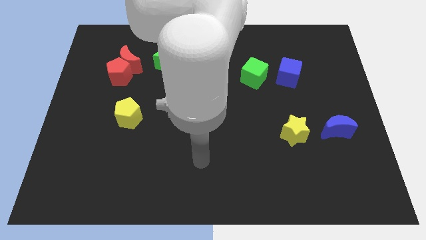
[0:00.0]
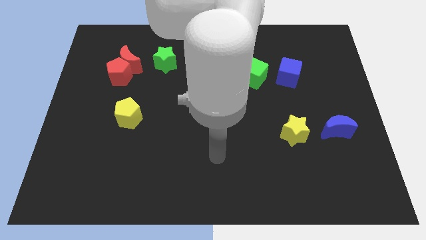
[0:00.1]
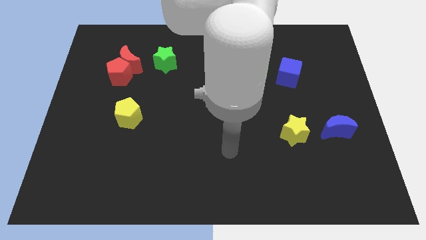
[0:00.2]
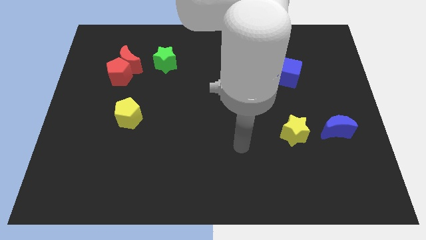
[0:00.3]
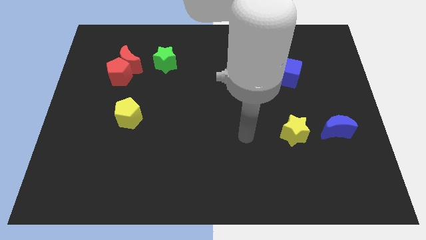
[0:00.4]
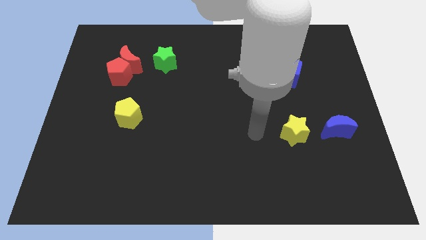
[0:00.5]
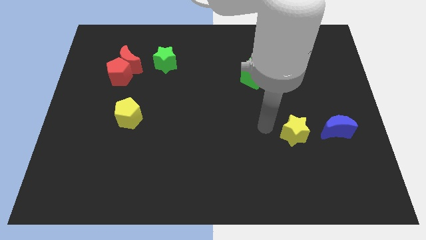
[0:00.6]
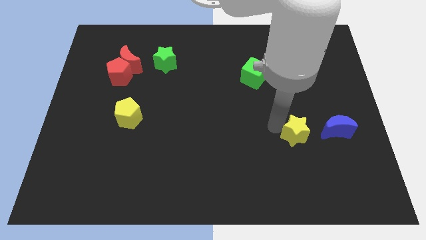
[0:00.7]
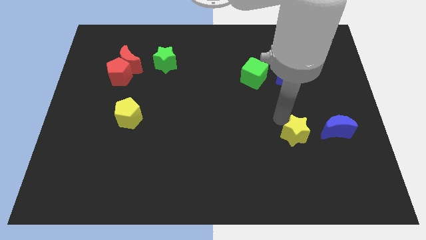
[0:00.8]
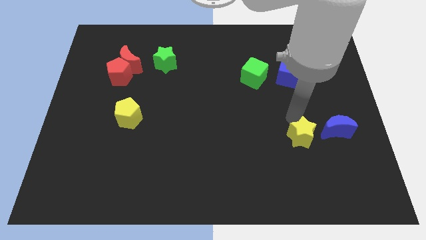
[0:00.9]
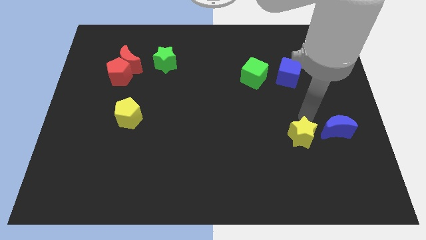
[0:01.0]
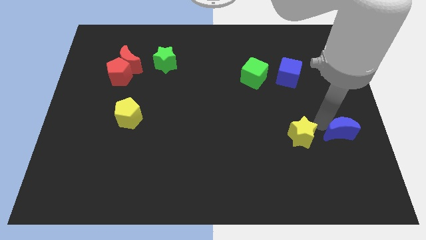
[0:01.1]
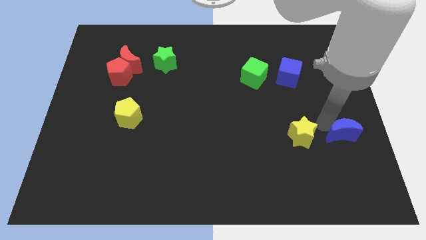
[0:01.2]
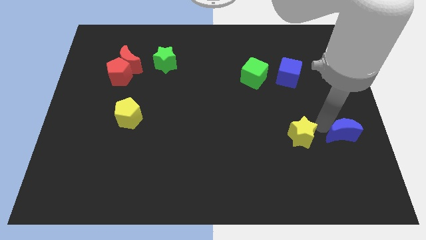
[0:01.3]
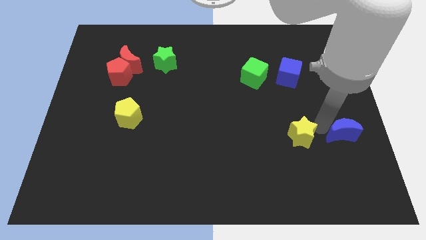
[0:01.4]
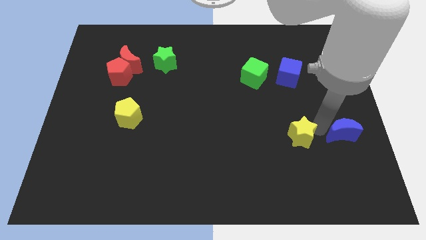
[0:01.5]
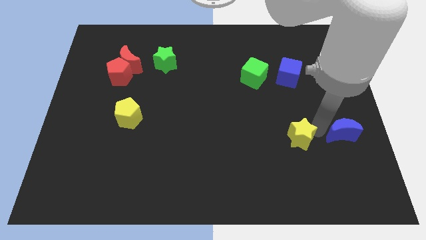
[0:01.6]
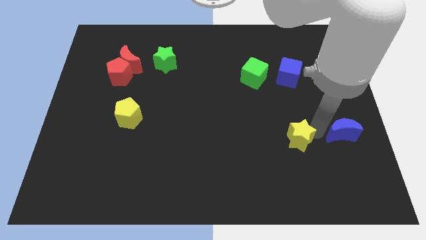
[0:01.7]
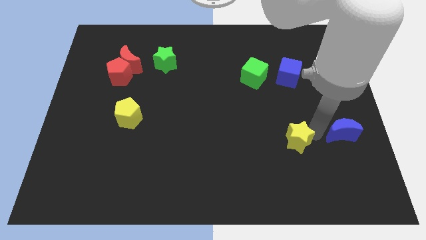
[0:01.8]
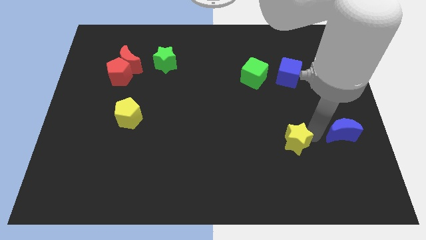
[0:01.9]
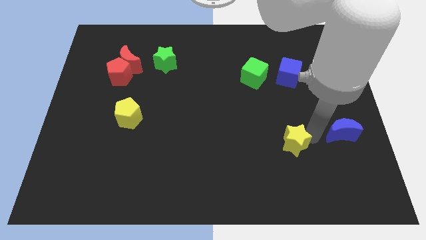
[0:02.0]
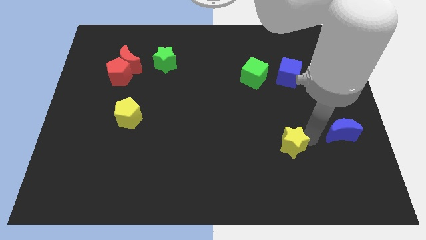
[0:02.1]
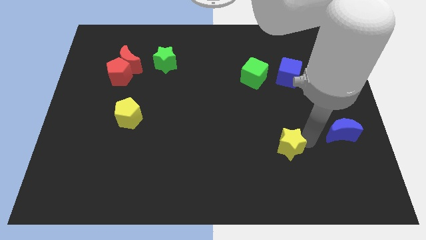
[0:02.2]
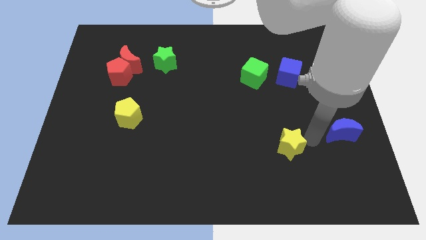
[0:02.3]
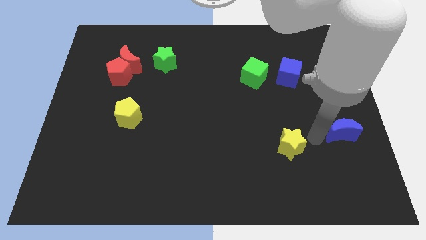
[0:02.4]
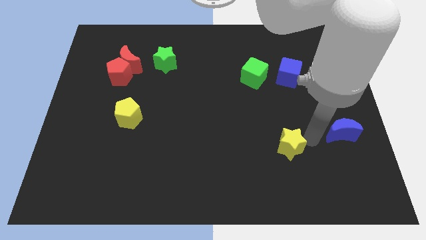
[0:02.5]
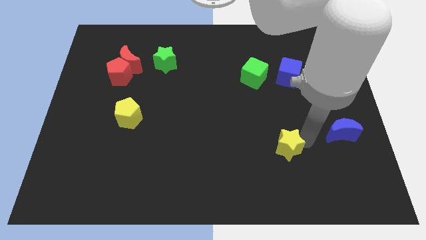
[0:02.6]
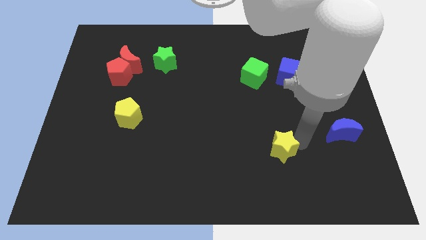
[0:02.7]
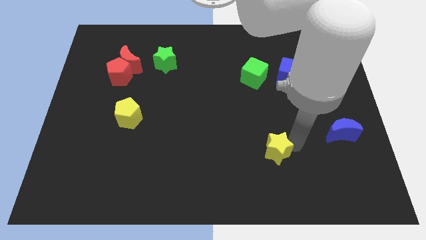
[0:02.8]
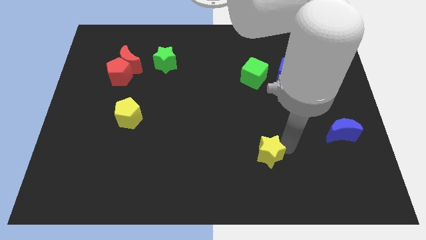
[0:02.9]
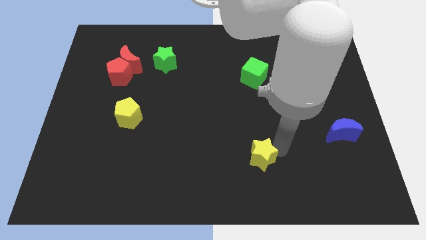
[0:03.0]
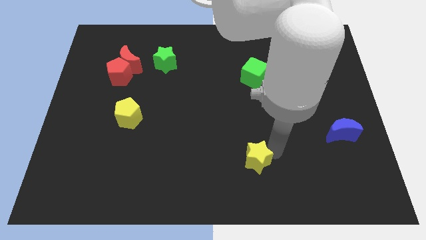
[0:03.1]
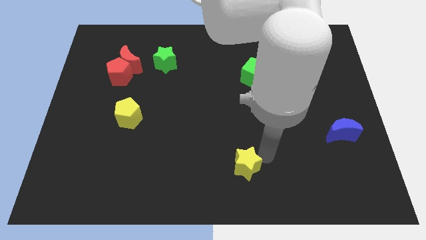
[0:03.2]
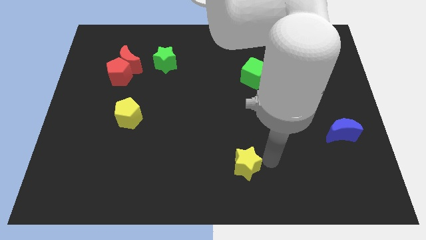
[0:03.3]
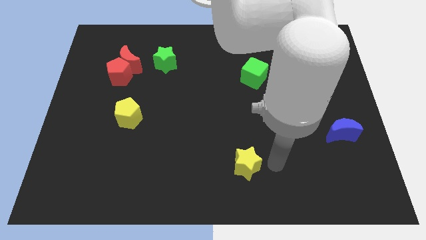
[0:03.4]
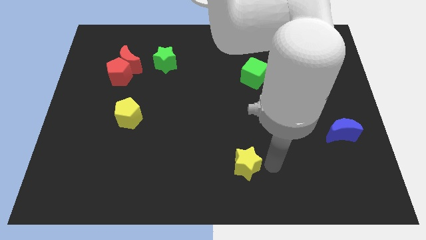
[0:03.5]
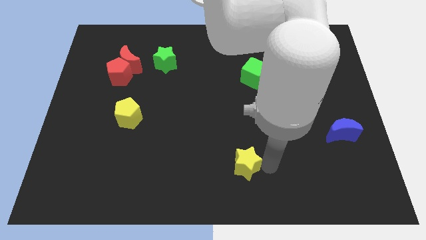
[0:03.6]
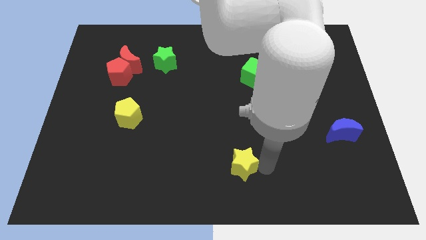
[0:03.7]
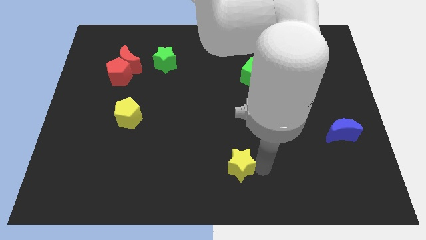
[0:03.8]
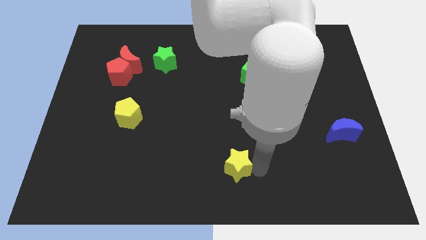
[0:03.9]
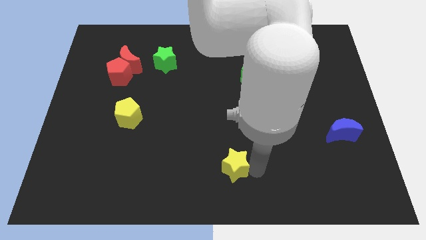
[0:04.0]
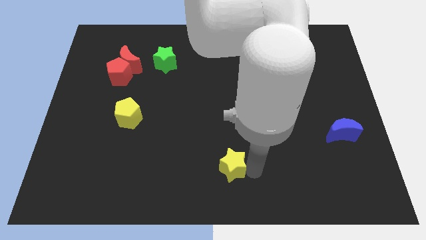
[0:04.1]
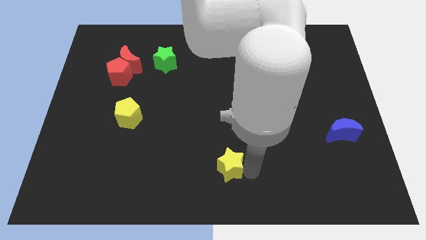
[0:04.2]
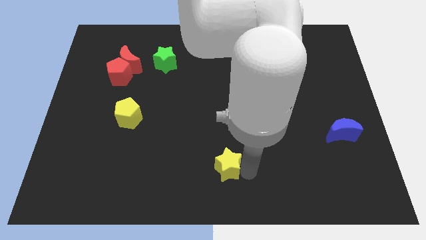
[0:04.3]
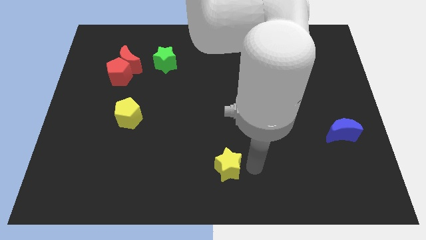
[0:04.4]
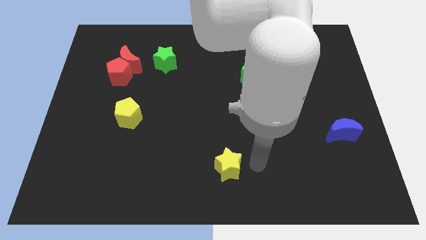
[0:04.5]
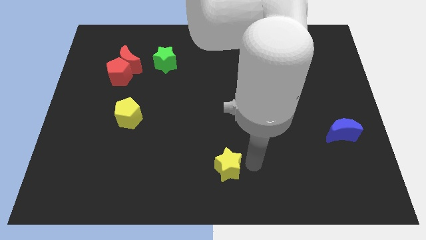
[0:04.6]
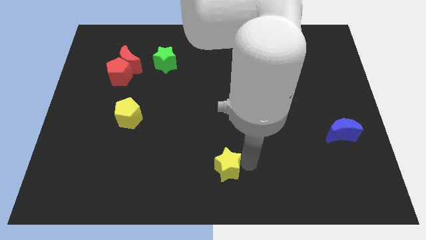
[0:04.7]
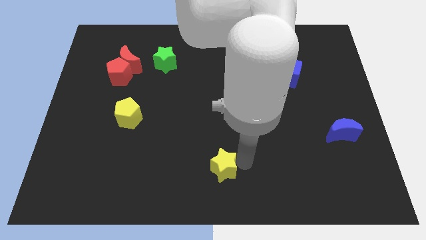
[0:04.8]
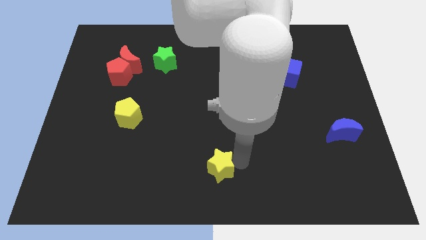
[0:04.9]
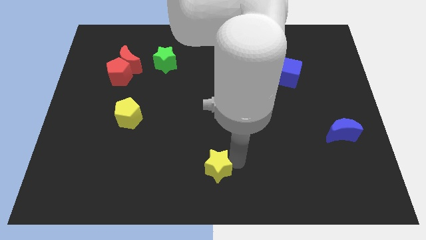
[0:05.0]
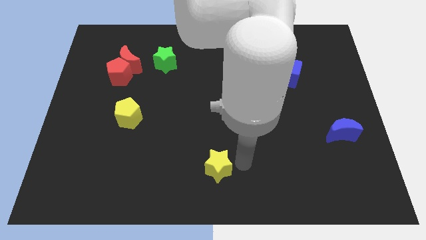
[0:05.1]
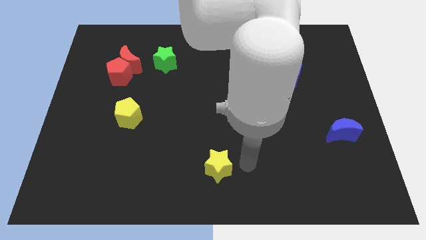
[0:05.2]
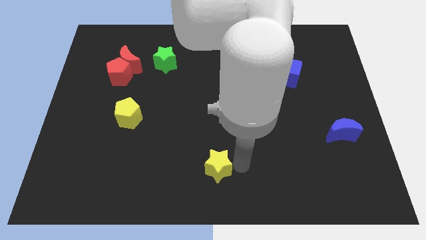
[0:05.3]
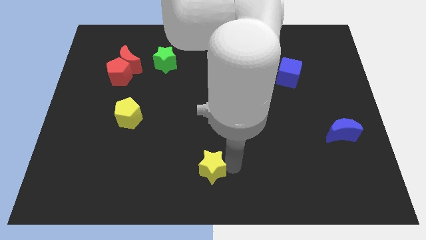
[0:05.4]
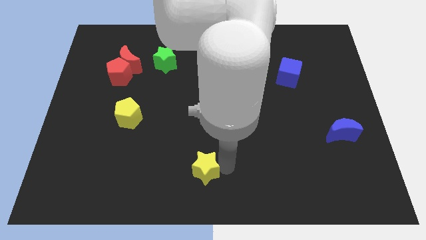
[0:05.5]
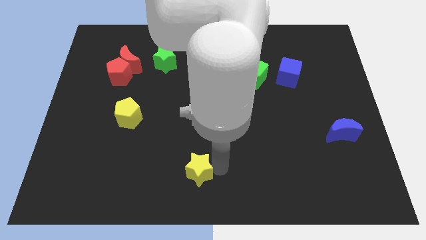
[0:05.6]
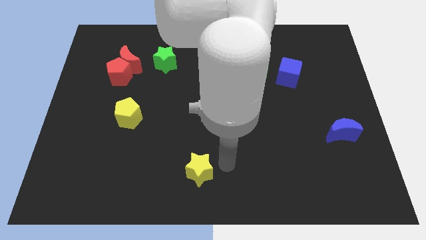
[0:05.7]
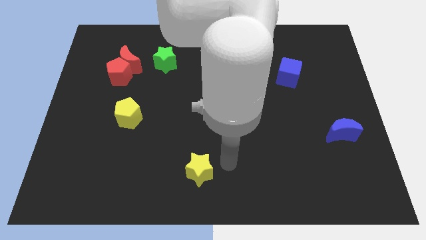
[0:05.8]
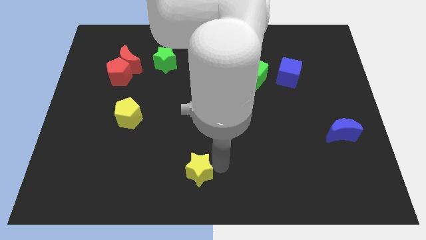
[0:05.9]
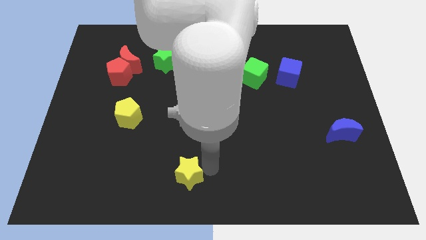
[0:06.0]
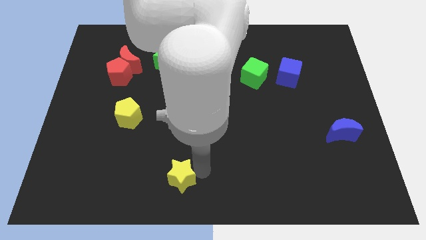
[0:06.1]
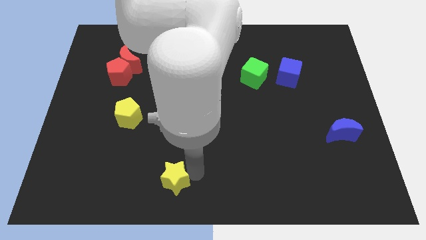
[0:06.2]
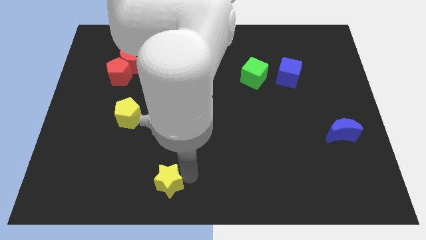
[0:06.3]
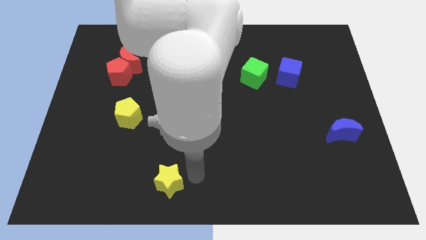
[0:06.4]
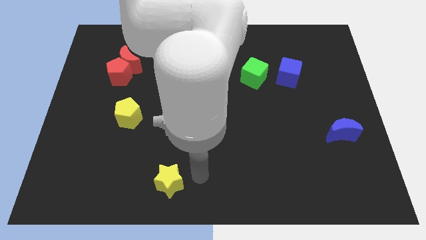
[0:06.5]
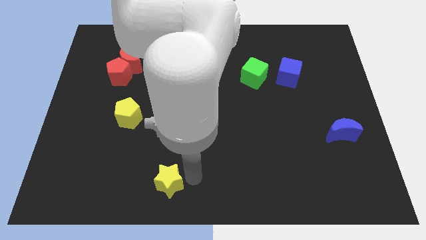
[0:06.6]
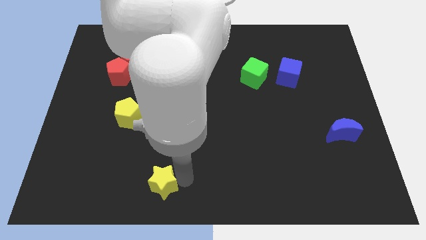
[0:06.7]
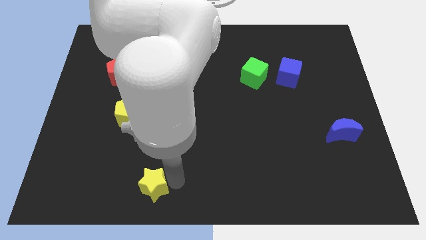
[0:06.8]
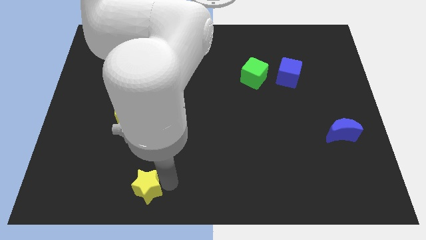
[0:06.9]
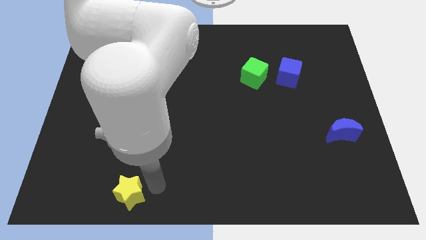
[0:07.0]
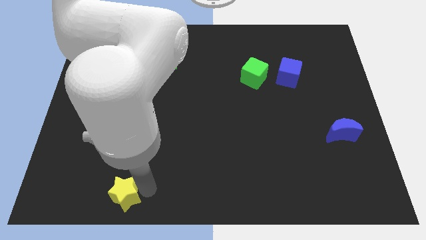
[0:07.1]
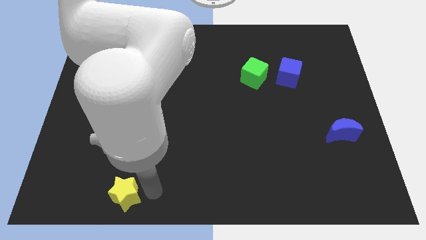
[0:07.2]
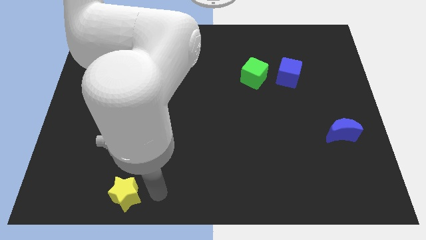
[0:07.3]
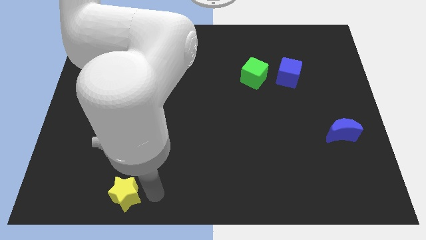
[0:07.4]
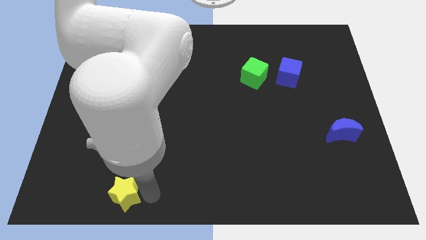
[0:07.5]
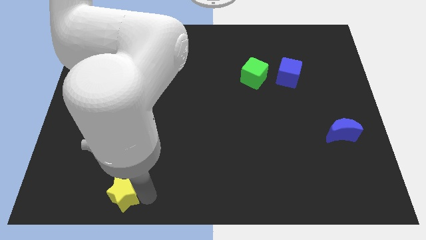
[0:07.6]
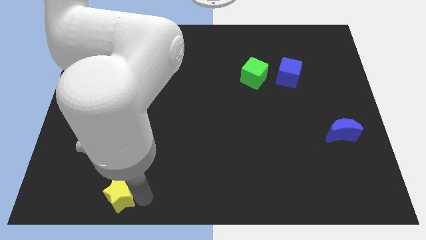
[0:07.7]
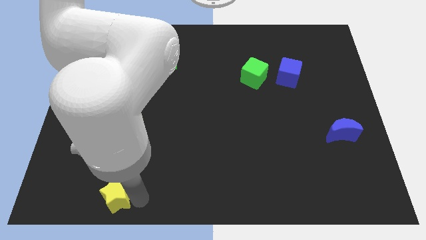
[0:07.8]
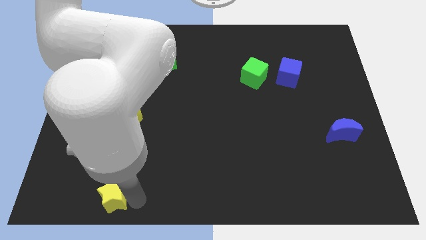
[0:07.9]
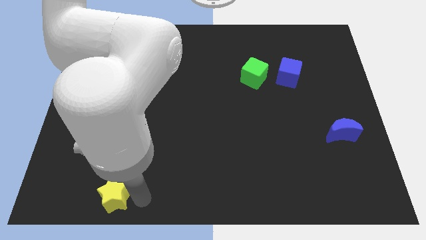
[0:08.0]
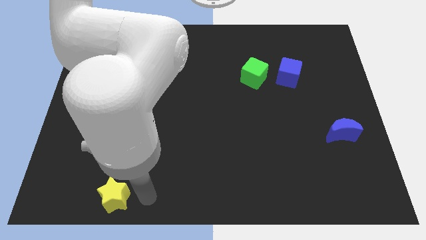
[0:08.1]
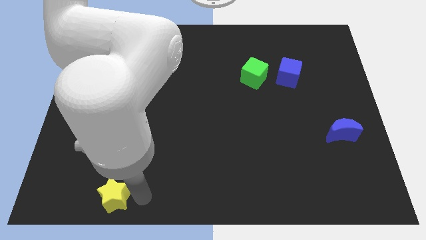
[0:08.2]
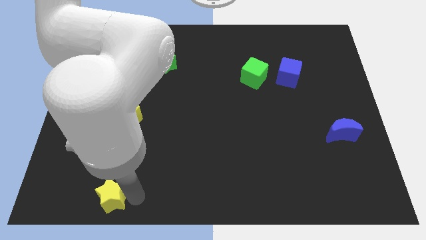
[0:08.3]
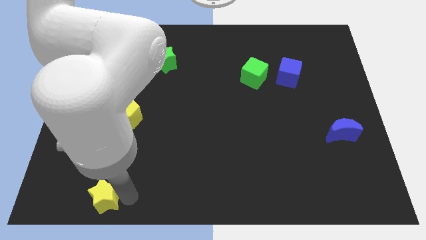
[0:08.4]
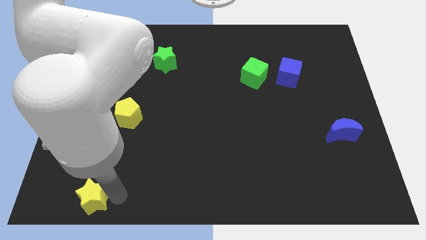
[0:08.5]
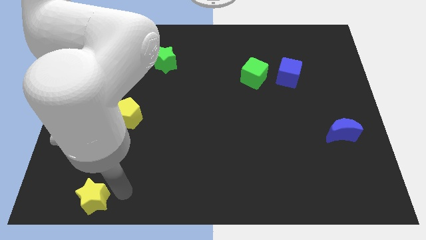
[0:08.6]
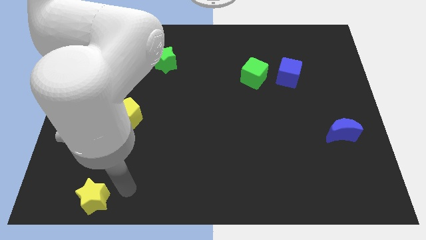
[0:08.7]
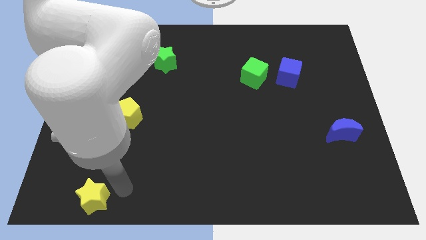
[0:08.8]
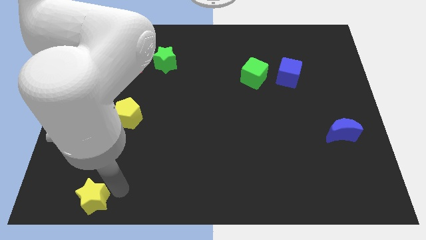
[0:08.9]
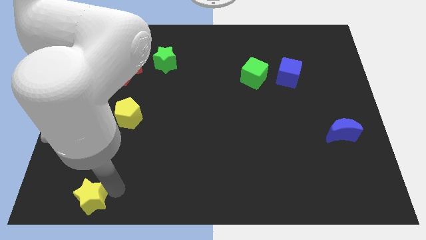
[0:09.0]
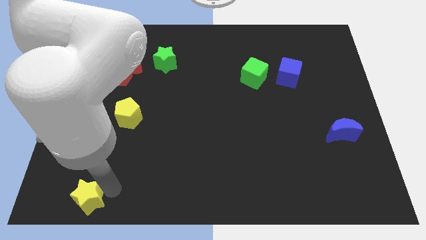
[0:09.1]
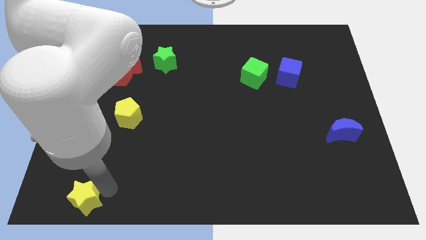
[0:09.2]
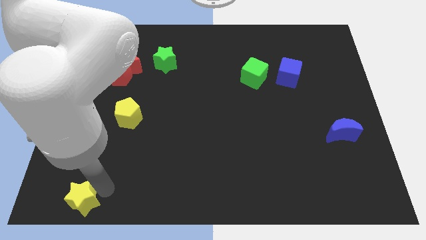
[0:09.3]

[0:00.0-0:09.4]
push the yellow star to the bottom left corner
